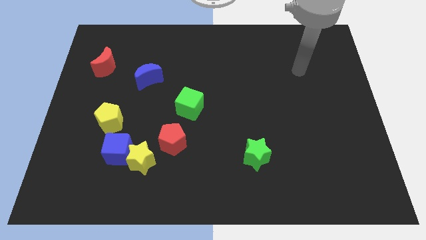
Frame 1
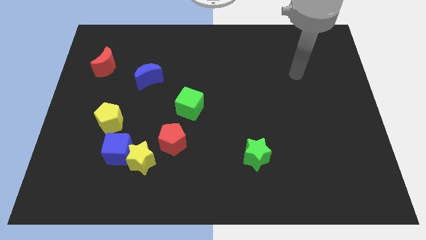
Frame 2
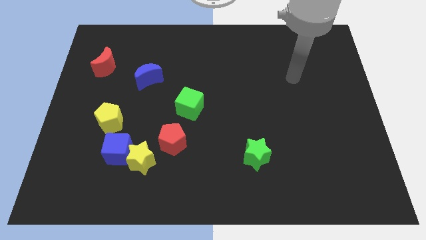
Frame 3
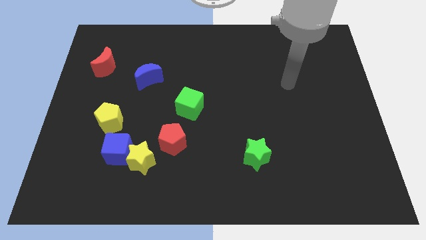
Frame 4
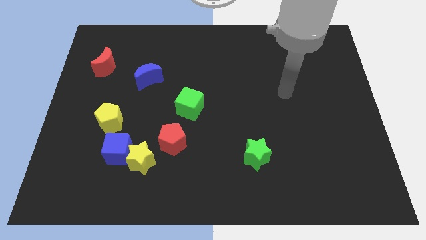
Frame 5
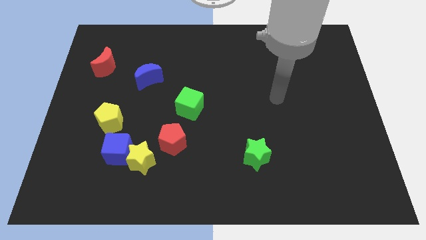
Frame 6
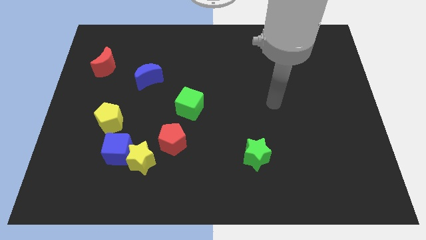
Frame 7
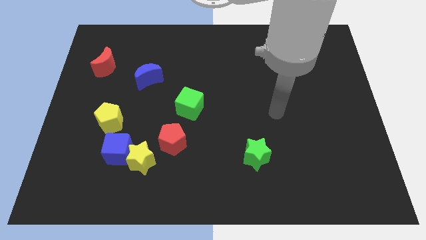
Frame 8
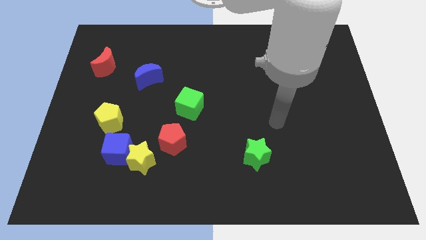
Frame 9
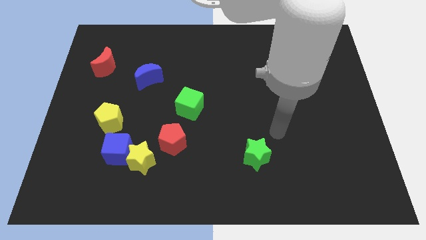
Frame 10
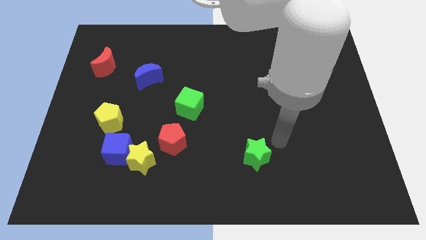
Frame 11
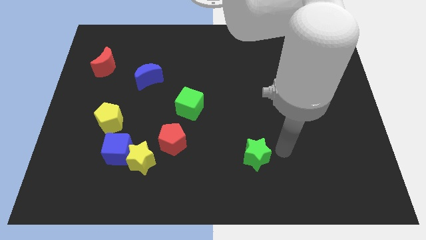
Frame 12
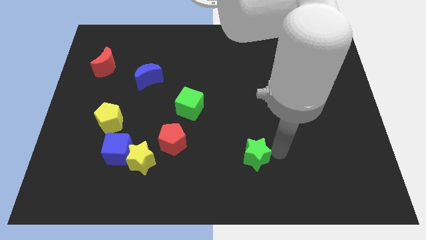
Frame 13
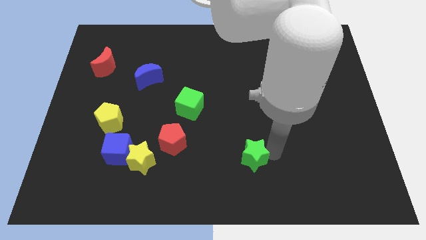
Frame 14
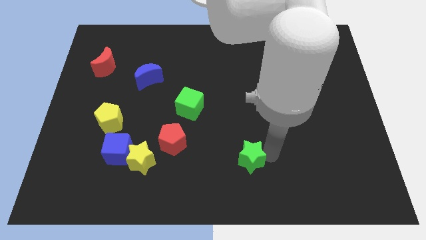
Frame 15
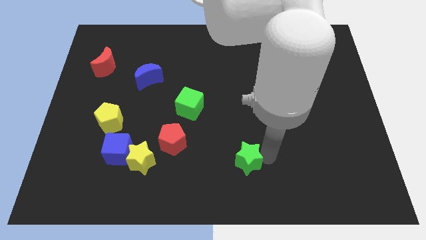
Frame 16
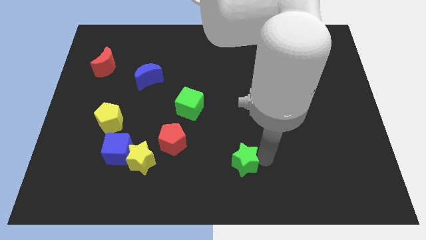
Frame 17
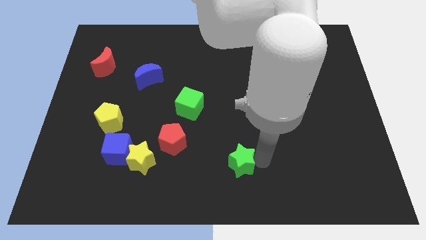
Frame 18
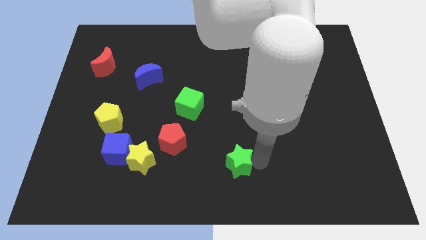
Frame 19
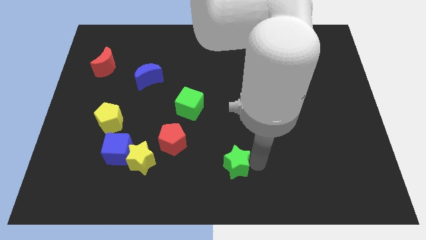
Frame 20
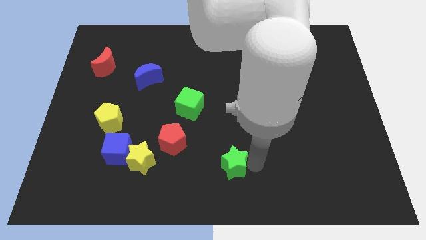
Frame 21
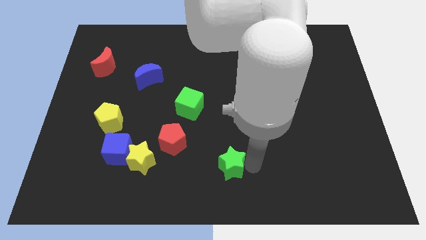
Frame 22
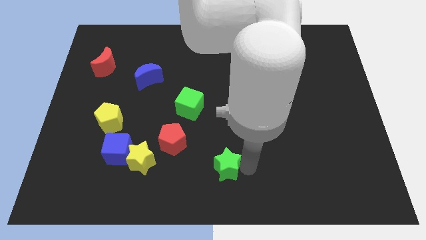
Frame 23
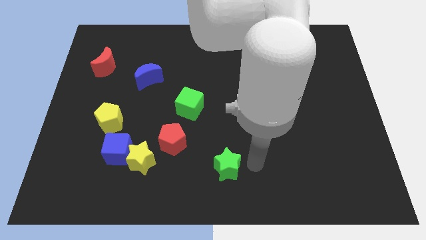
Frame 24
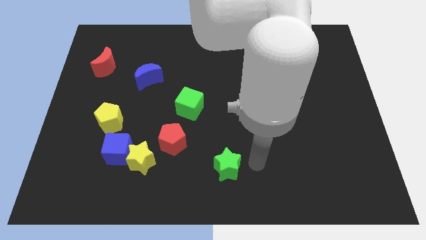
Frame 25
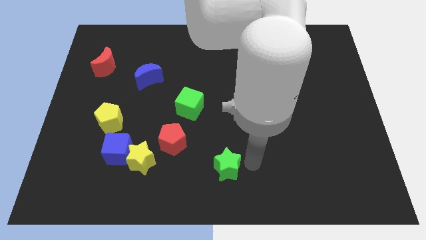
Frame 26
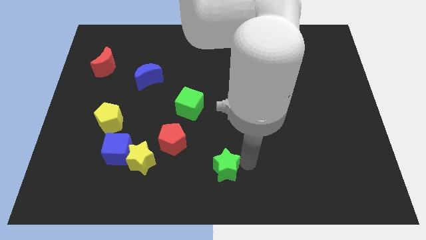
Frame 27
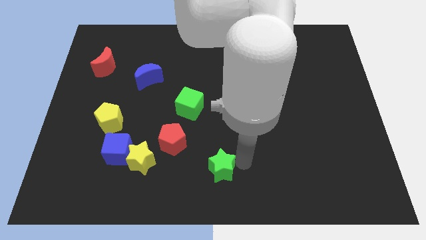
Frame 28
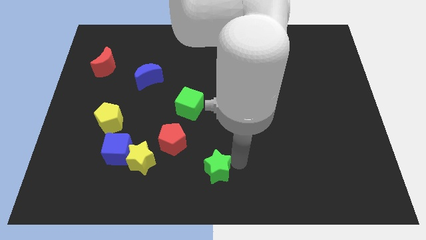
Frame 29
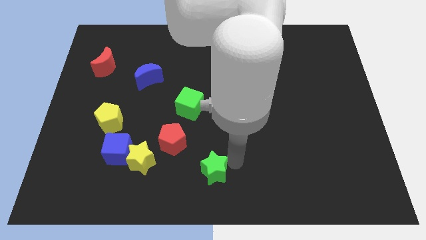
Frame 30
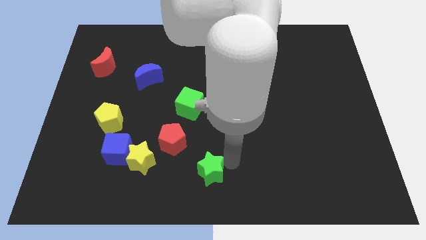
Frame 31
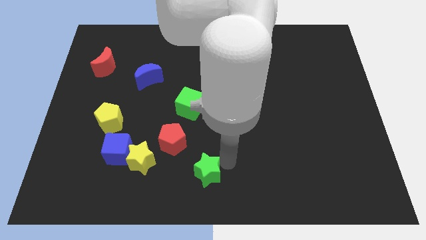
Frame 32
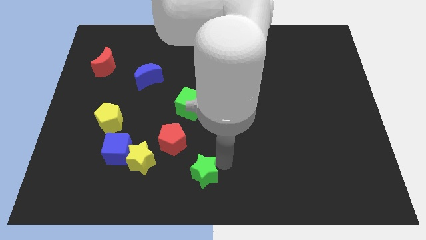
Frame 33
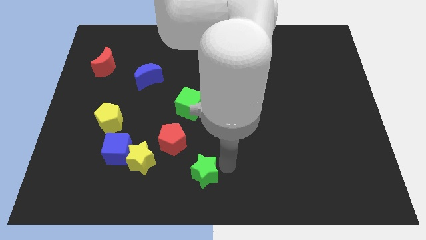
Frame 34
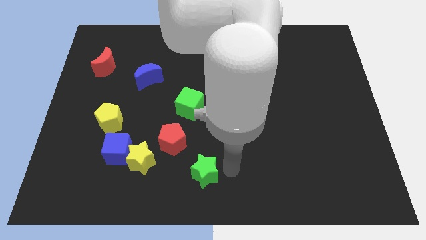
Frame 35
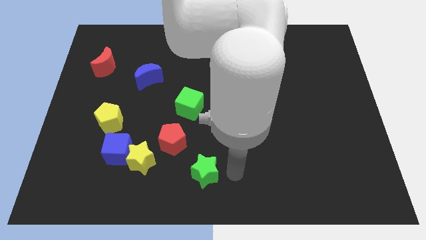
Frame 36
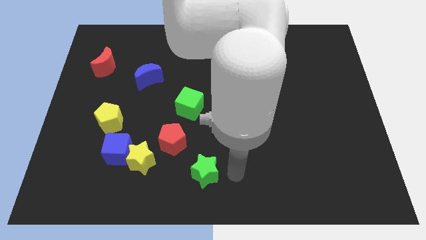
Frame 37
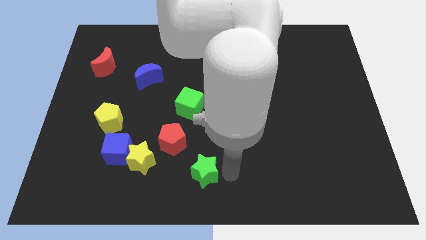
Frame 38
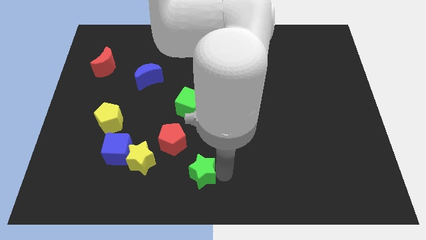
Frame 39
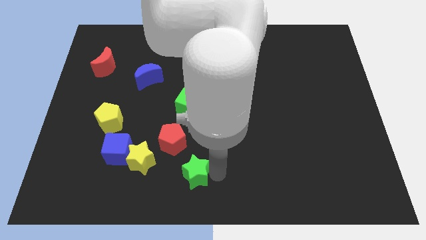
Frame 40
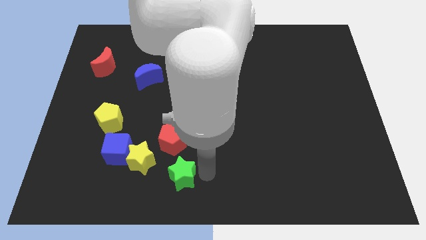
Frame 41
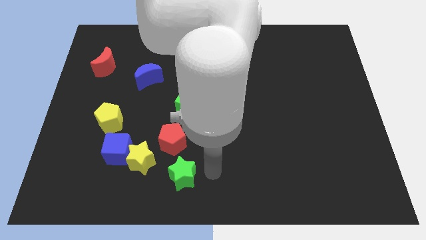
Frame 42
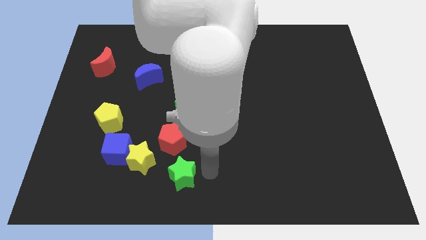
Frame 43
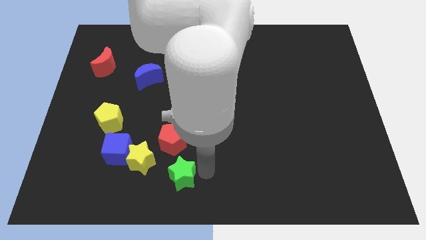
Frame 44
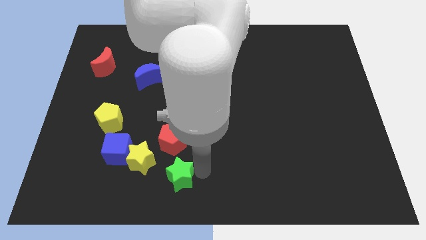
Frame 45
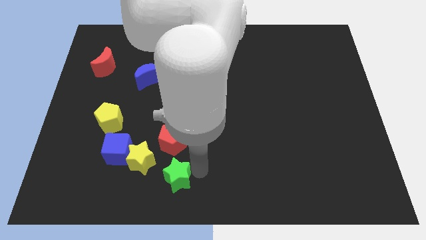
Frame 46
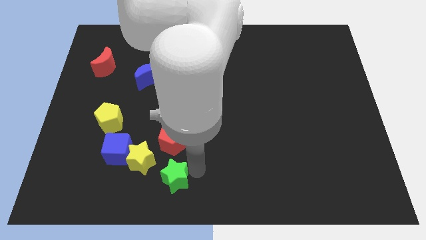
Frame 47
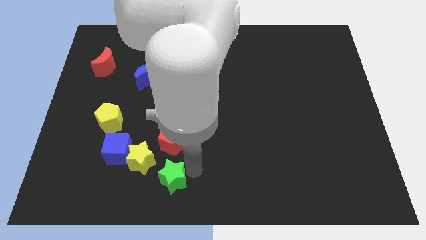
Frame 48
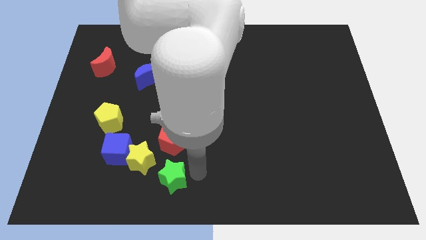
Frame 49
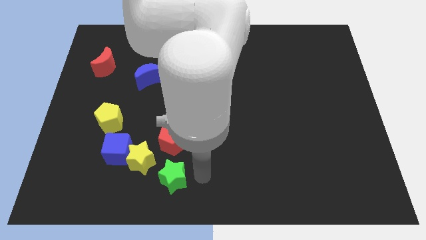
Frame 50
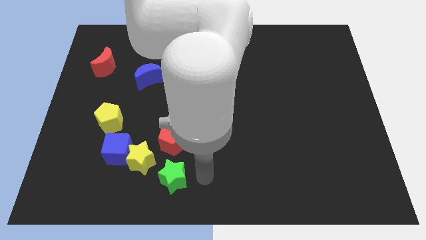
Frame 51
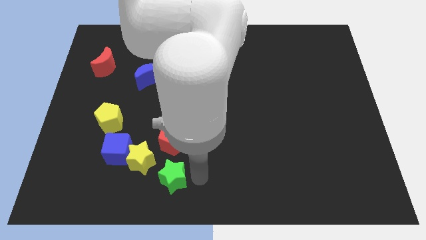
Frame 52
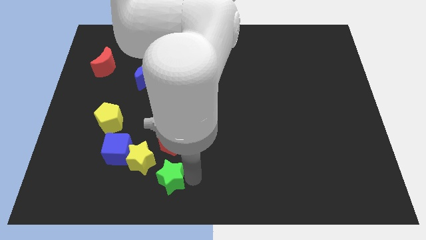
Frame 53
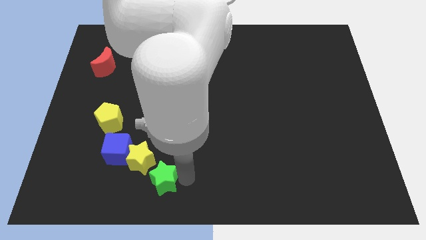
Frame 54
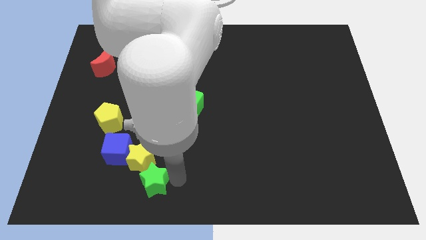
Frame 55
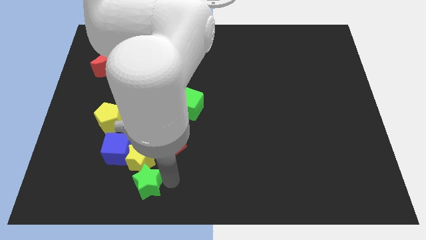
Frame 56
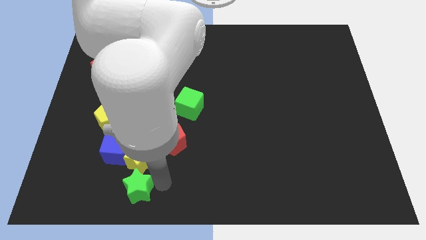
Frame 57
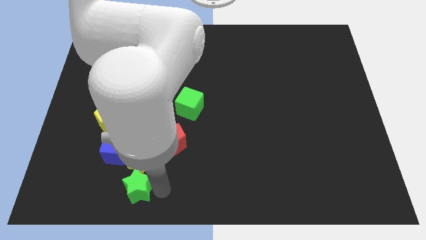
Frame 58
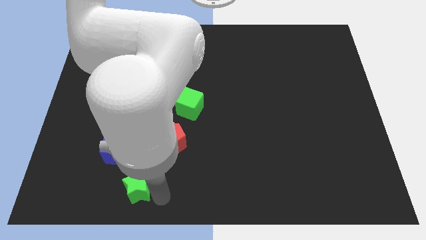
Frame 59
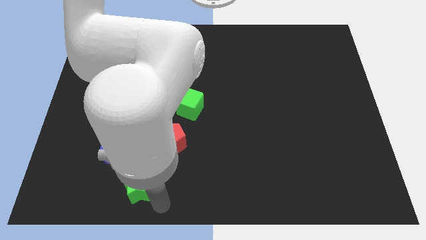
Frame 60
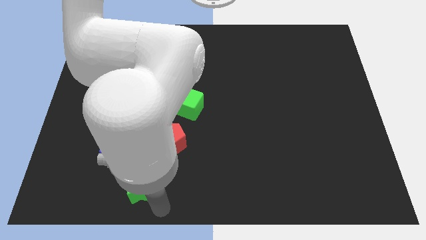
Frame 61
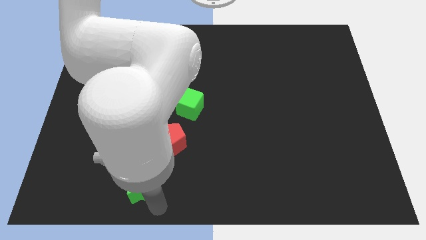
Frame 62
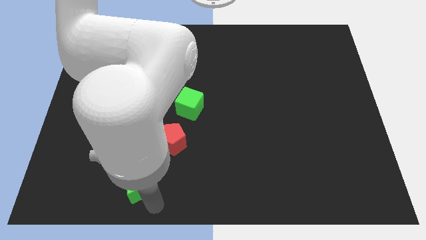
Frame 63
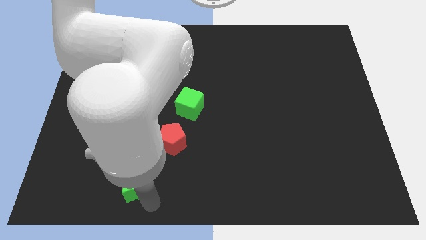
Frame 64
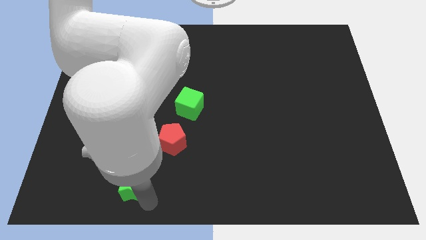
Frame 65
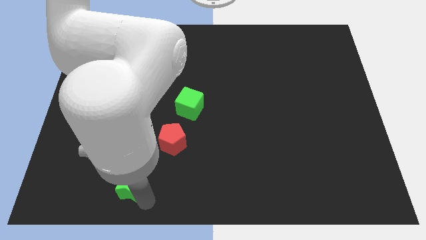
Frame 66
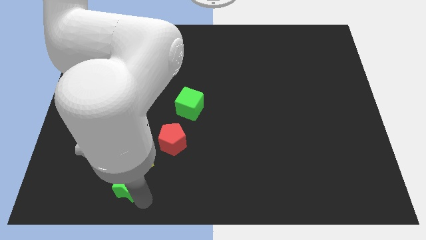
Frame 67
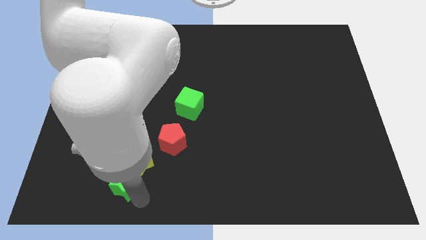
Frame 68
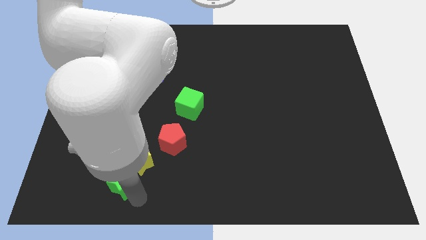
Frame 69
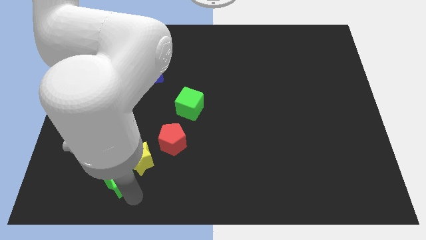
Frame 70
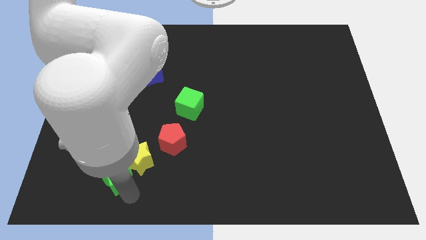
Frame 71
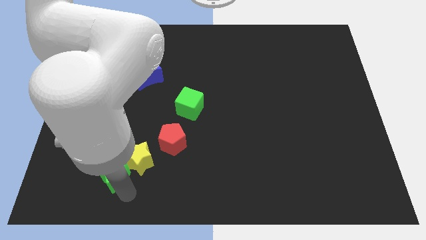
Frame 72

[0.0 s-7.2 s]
put the green star next to the blue cube

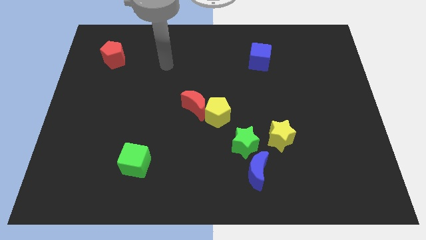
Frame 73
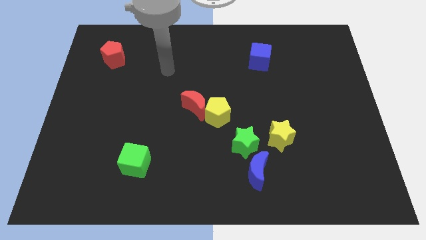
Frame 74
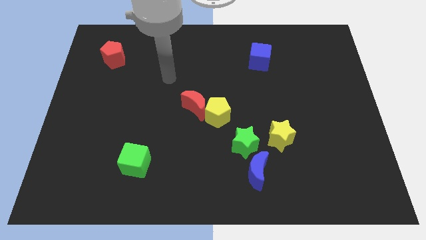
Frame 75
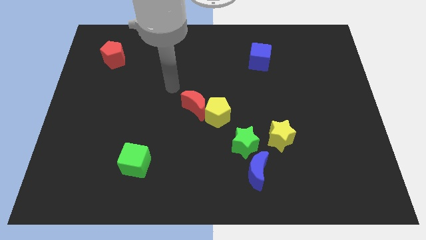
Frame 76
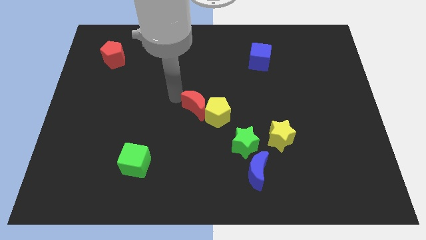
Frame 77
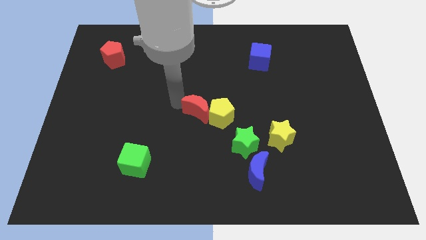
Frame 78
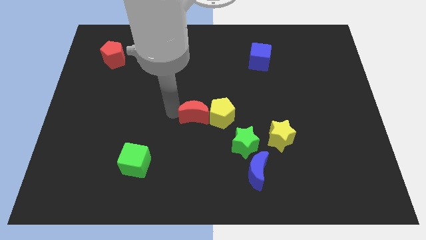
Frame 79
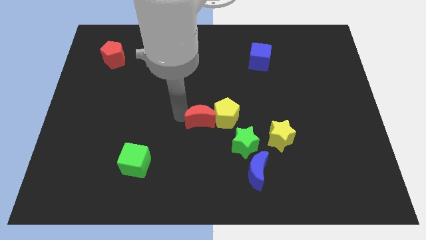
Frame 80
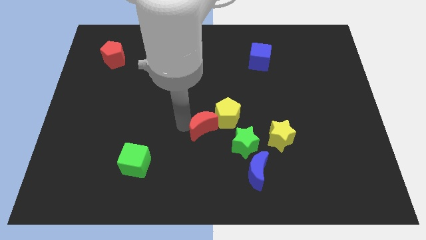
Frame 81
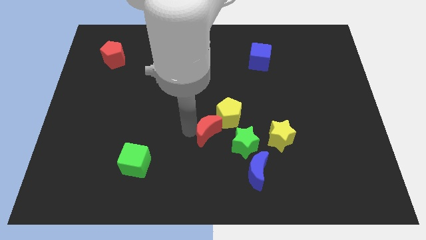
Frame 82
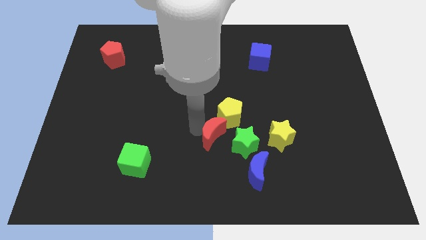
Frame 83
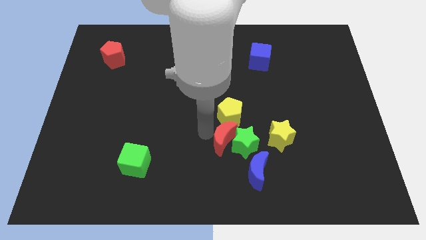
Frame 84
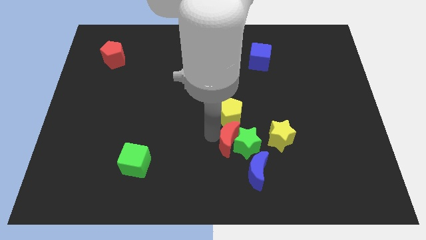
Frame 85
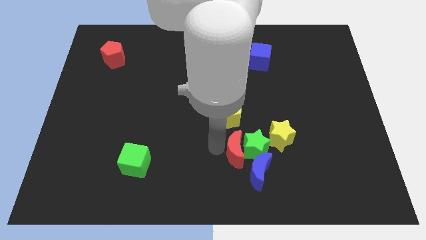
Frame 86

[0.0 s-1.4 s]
move the green star close to the yellow star
